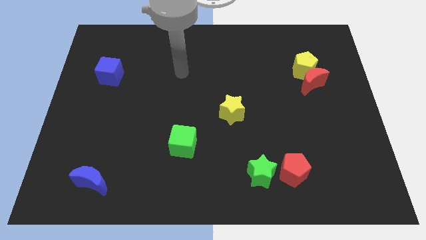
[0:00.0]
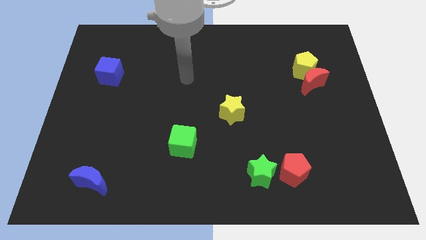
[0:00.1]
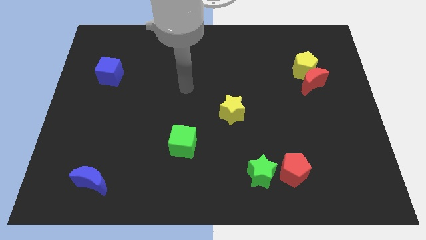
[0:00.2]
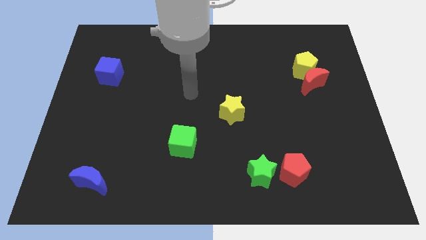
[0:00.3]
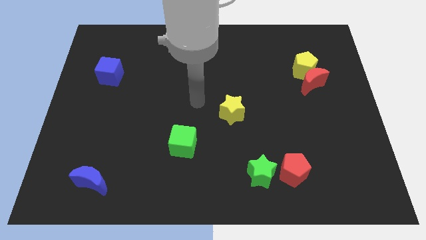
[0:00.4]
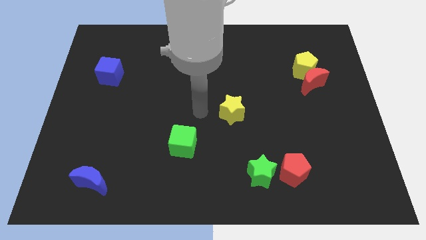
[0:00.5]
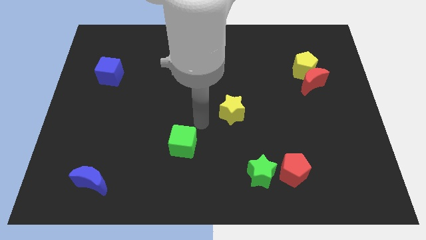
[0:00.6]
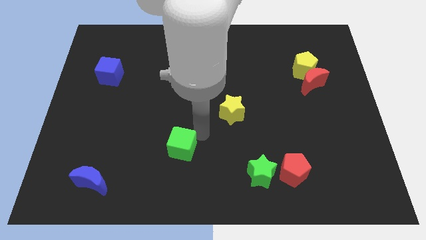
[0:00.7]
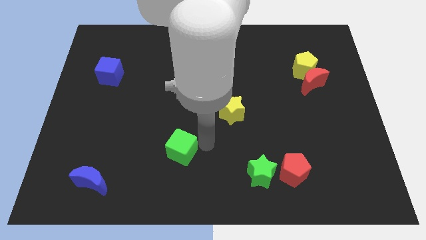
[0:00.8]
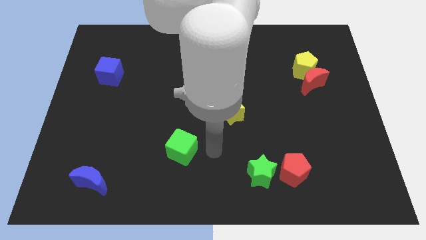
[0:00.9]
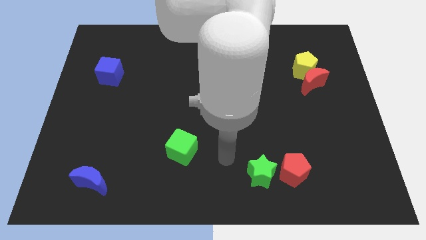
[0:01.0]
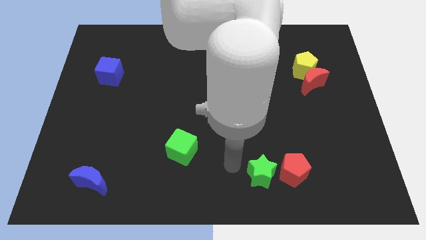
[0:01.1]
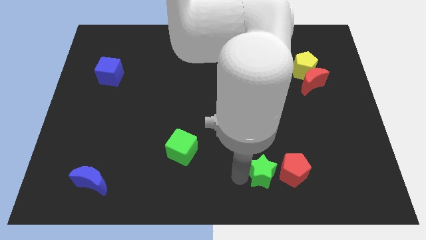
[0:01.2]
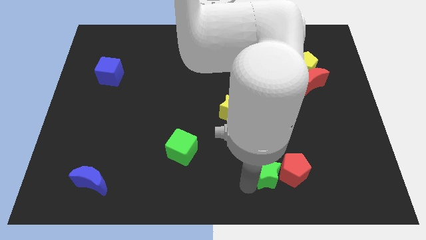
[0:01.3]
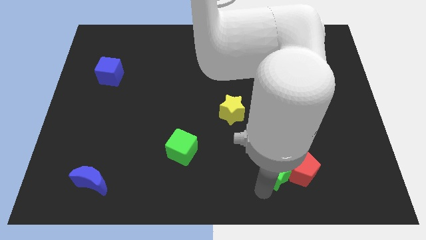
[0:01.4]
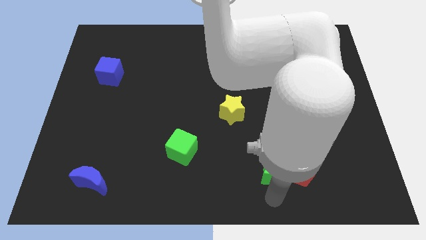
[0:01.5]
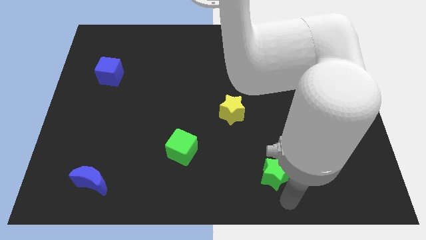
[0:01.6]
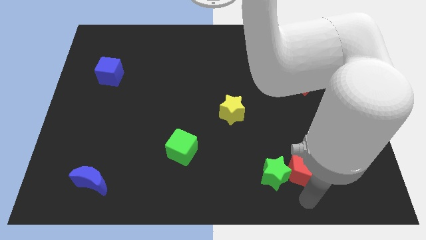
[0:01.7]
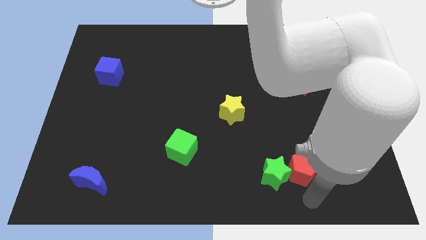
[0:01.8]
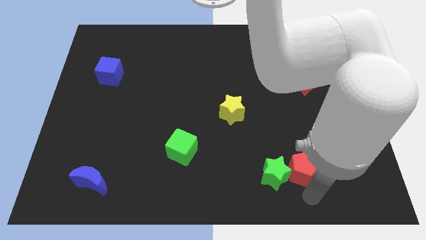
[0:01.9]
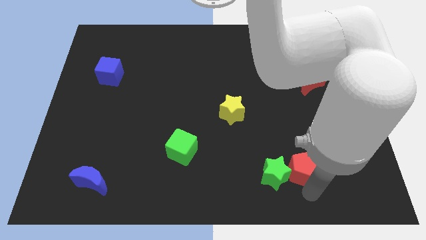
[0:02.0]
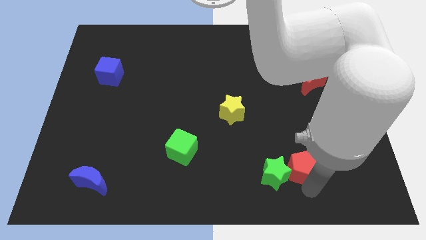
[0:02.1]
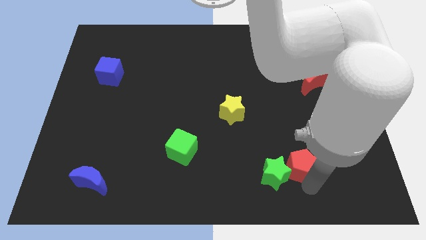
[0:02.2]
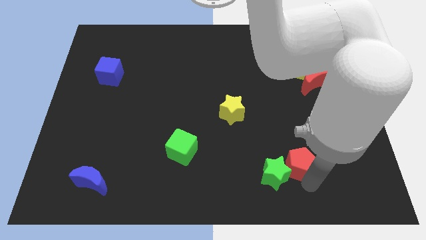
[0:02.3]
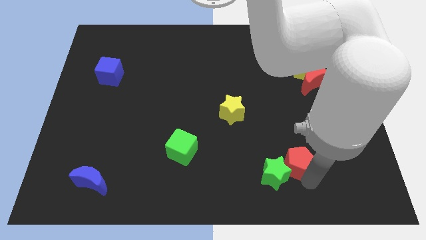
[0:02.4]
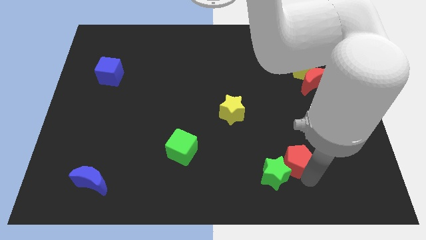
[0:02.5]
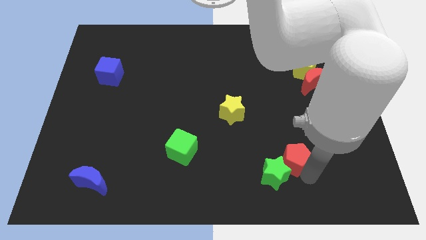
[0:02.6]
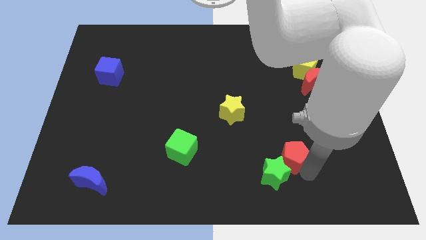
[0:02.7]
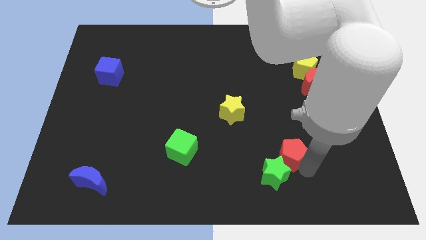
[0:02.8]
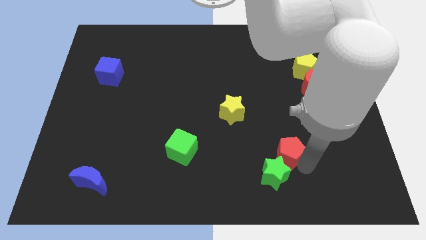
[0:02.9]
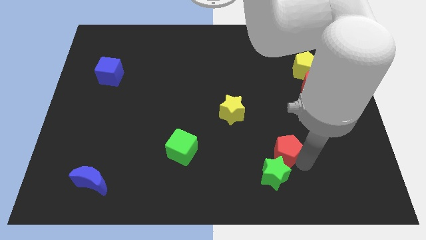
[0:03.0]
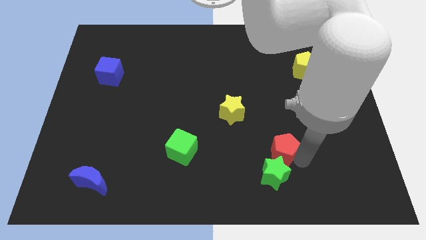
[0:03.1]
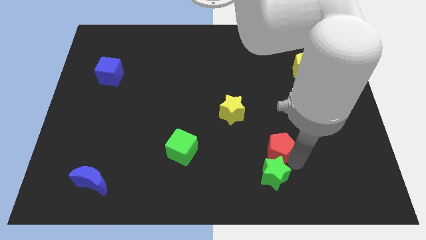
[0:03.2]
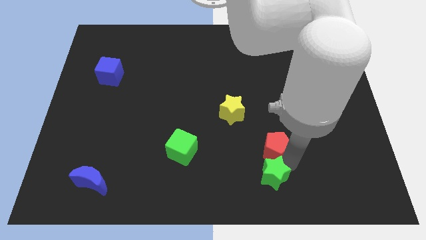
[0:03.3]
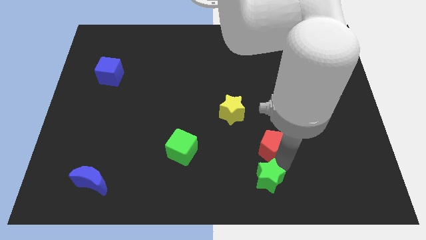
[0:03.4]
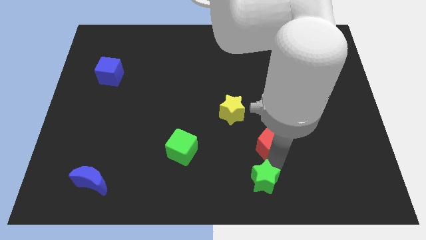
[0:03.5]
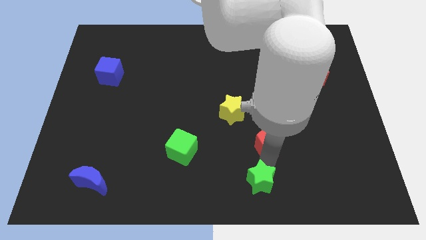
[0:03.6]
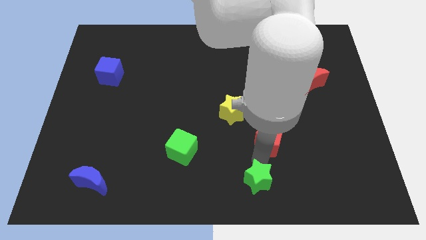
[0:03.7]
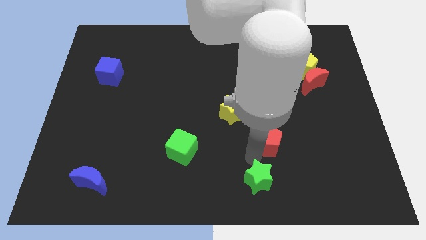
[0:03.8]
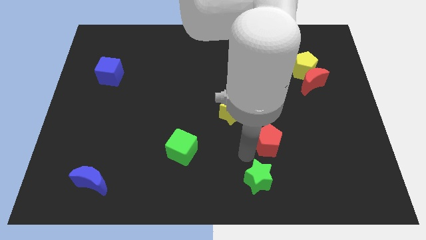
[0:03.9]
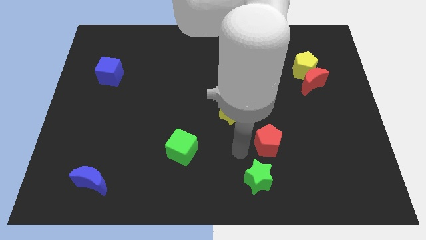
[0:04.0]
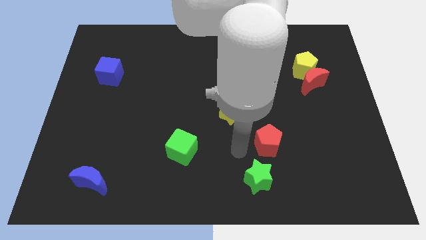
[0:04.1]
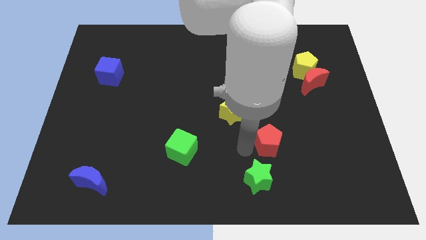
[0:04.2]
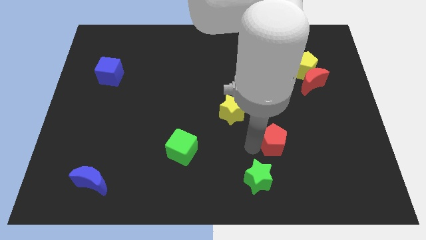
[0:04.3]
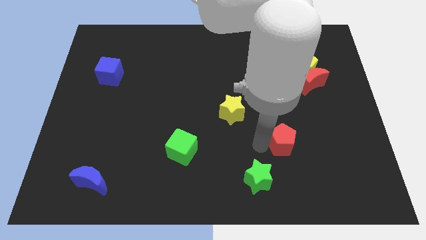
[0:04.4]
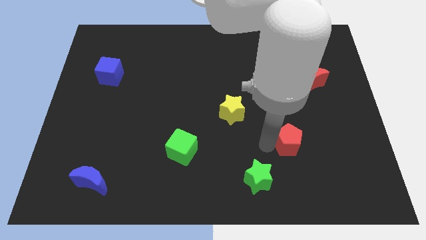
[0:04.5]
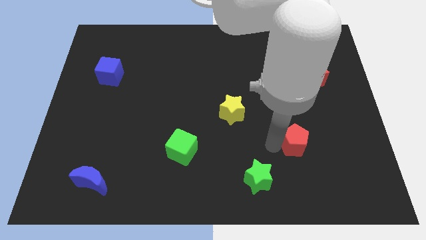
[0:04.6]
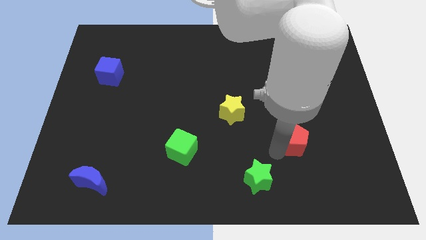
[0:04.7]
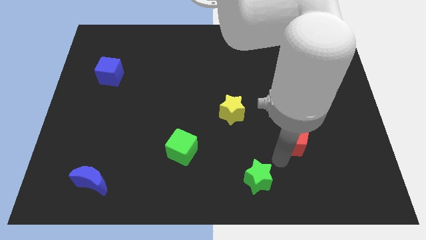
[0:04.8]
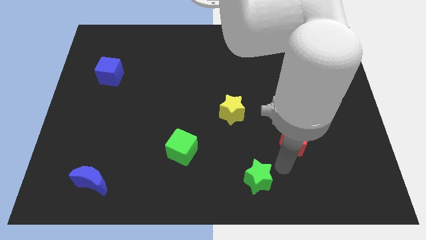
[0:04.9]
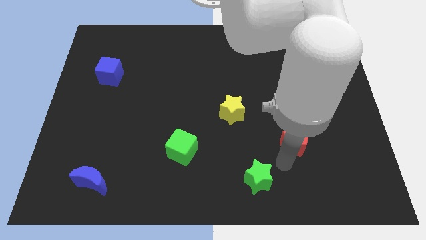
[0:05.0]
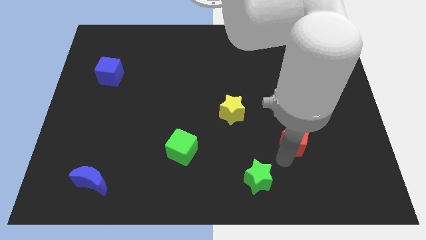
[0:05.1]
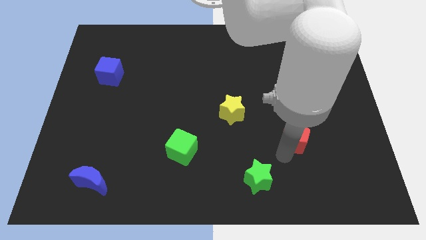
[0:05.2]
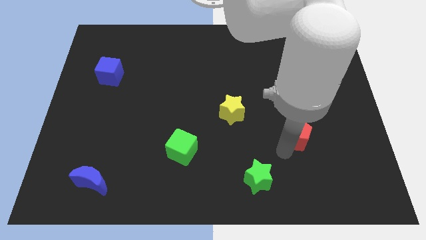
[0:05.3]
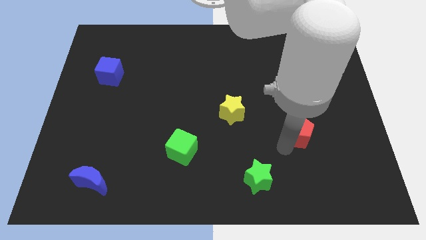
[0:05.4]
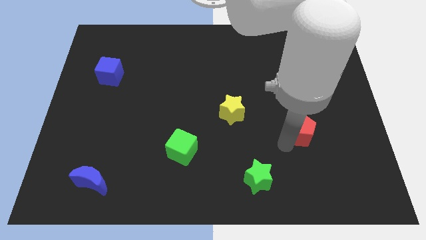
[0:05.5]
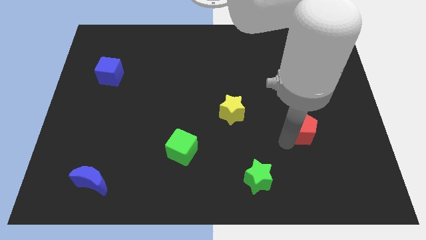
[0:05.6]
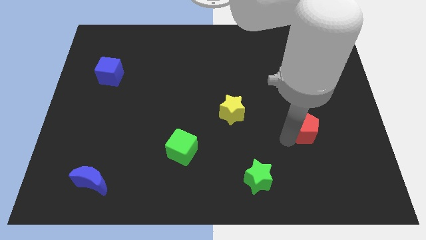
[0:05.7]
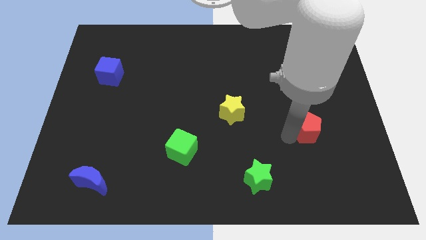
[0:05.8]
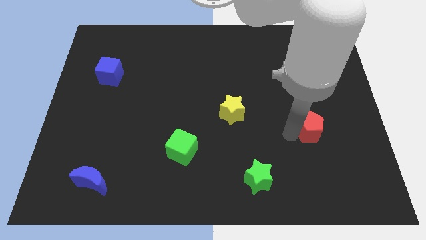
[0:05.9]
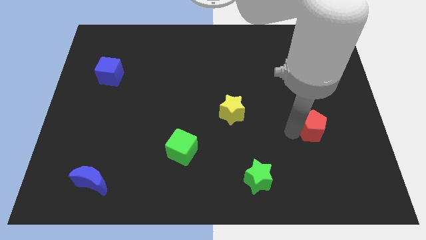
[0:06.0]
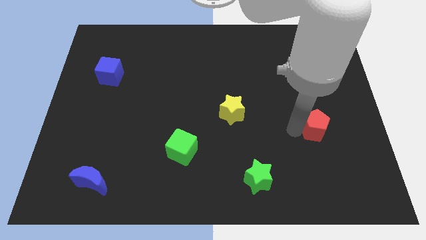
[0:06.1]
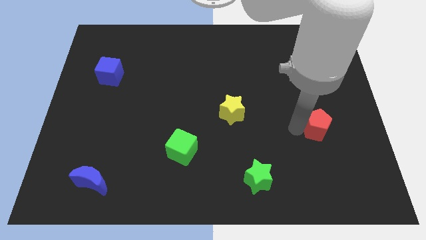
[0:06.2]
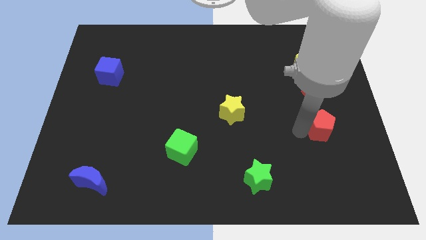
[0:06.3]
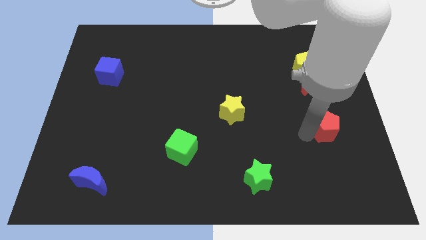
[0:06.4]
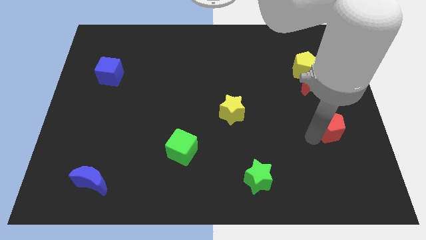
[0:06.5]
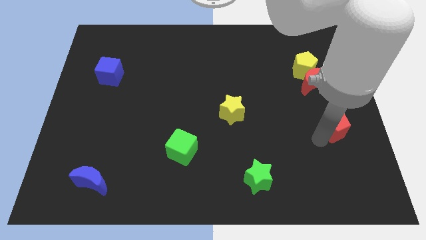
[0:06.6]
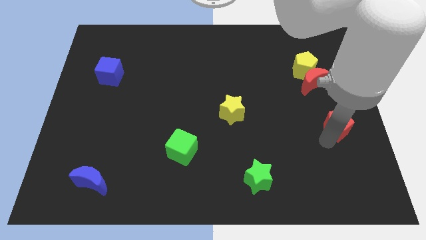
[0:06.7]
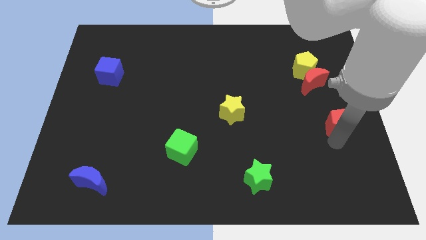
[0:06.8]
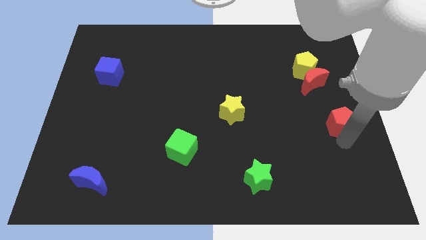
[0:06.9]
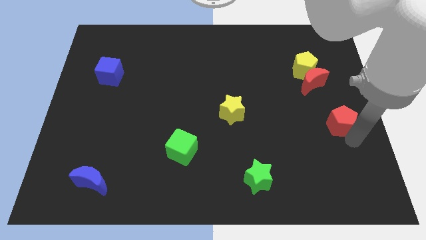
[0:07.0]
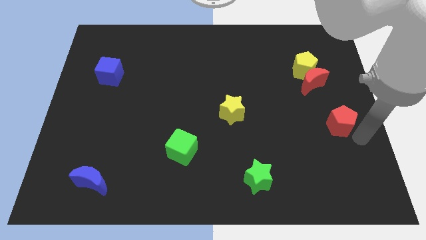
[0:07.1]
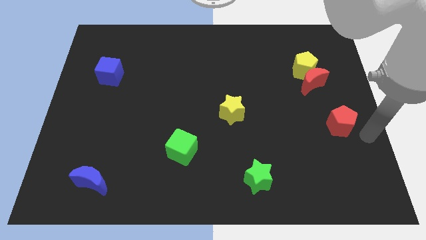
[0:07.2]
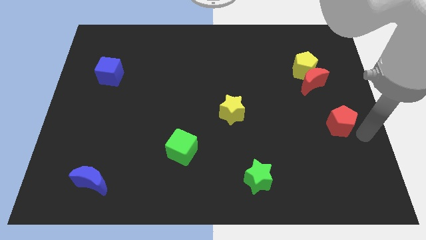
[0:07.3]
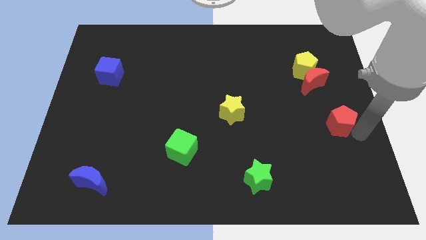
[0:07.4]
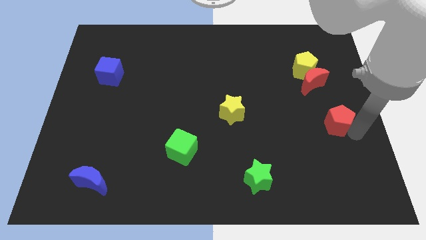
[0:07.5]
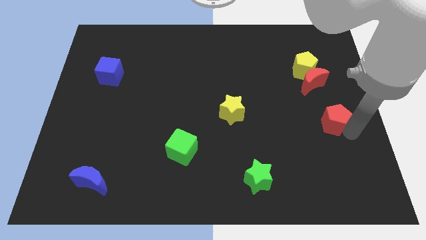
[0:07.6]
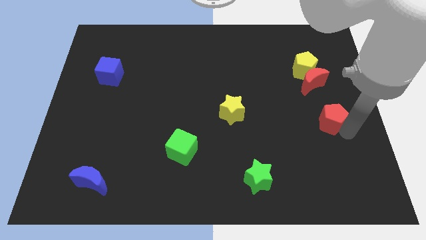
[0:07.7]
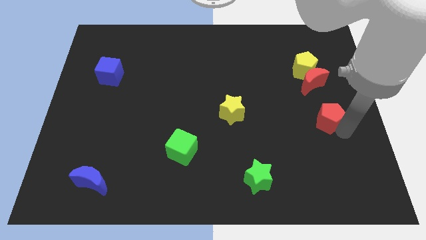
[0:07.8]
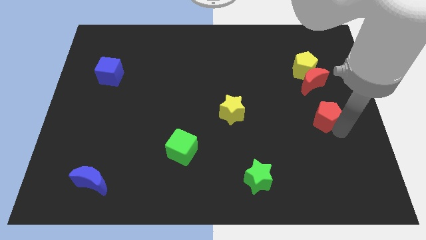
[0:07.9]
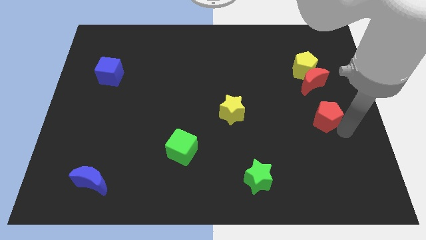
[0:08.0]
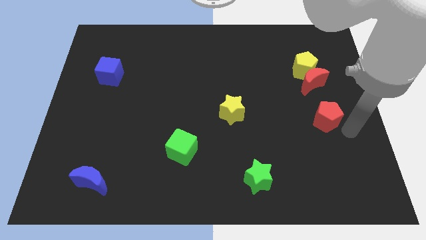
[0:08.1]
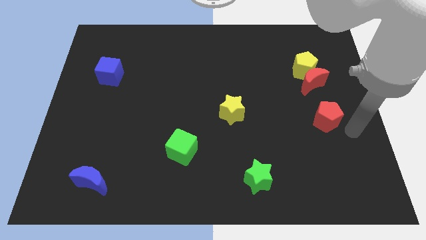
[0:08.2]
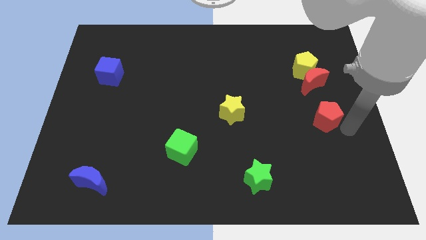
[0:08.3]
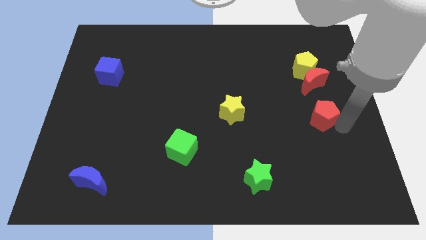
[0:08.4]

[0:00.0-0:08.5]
put the red pentagon to the bottom side of the yellow pentagon
